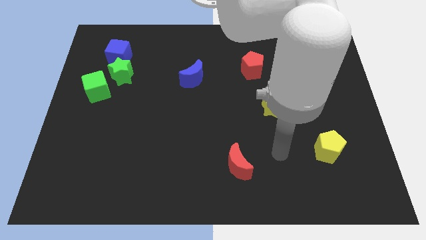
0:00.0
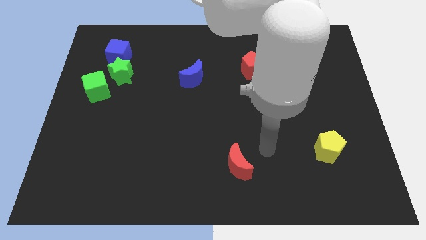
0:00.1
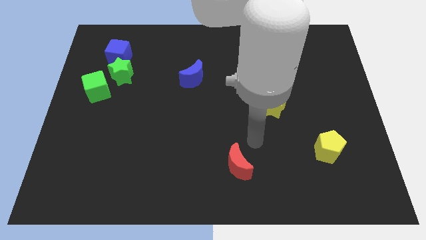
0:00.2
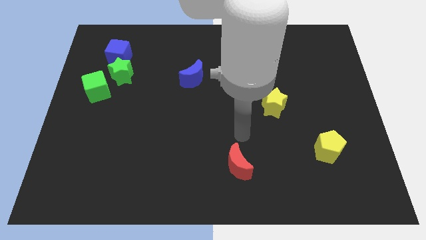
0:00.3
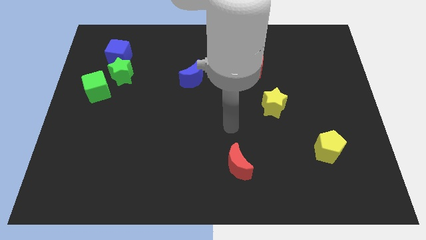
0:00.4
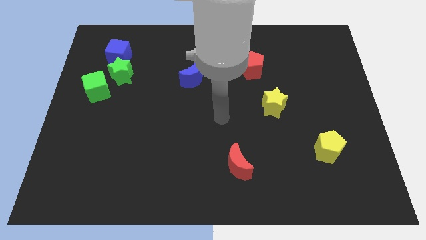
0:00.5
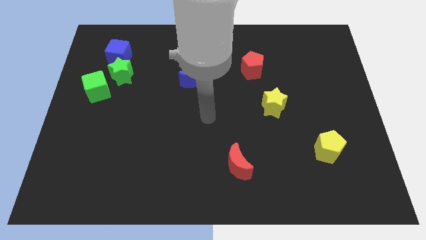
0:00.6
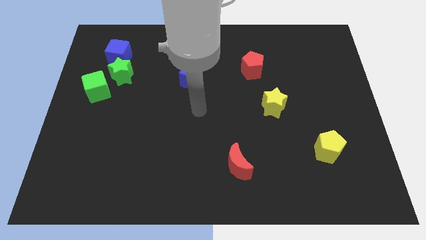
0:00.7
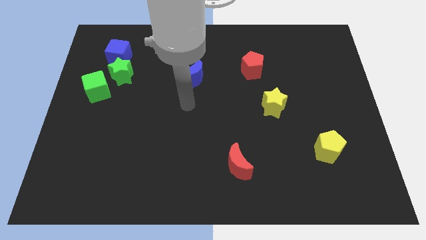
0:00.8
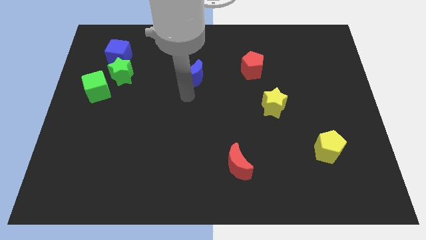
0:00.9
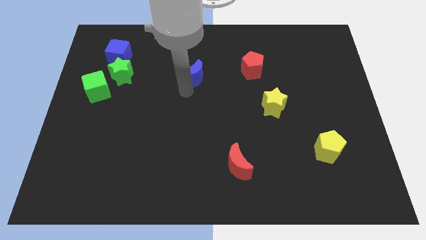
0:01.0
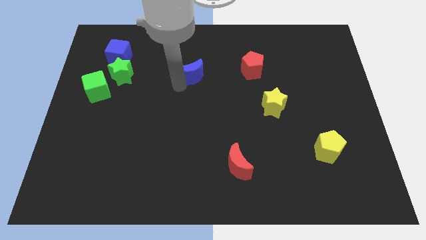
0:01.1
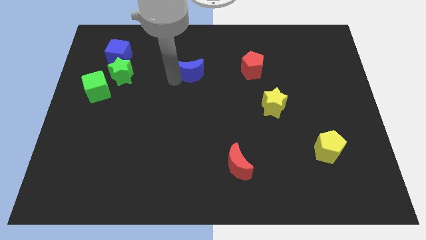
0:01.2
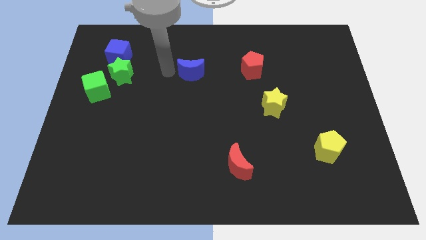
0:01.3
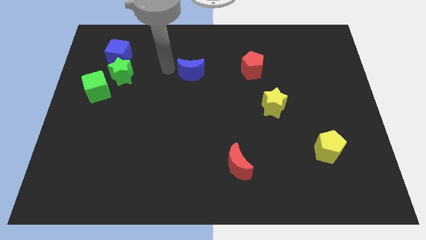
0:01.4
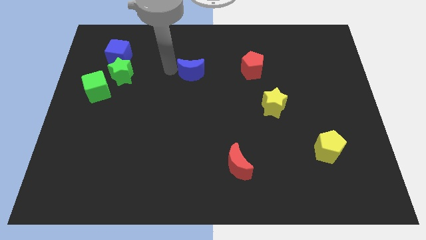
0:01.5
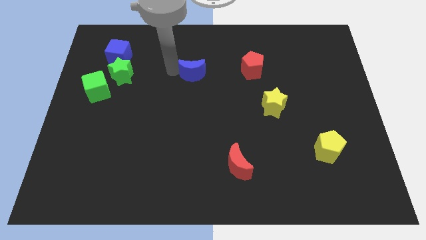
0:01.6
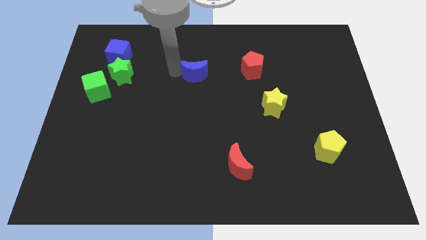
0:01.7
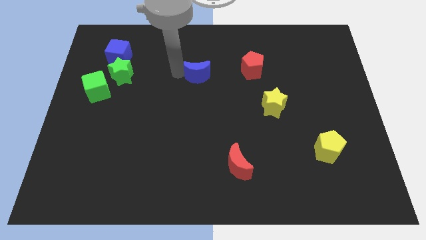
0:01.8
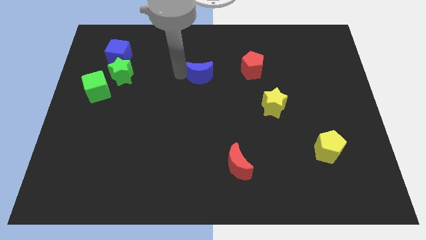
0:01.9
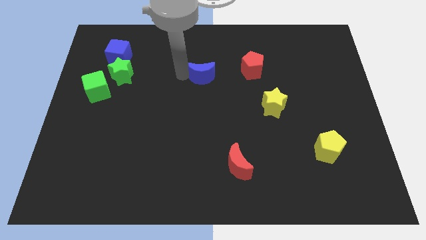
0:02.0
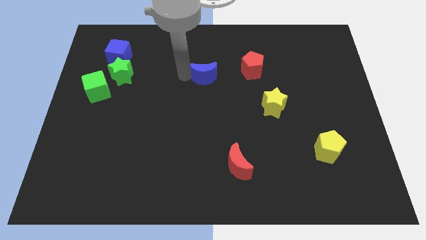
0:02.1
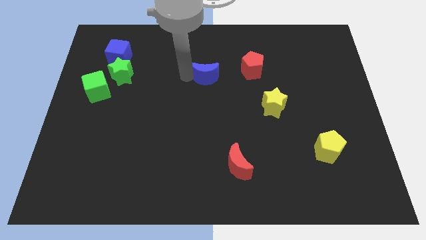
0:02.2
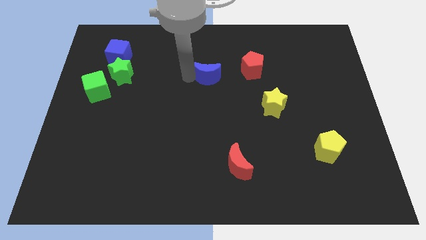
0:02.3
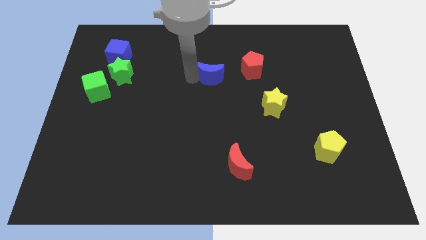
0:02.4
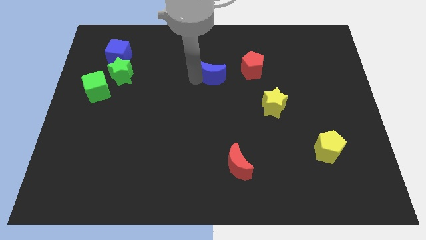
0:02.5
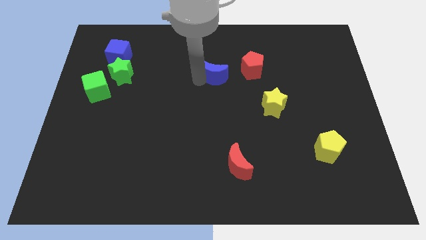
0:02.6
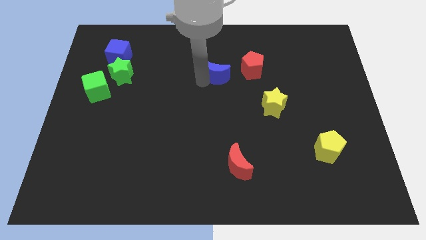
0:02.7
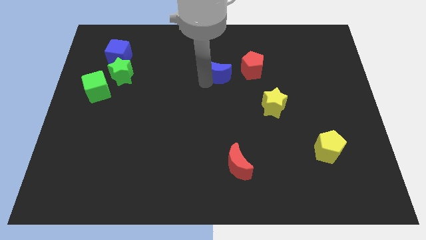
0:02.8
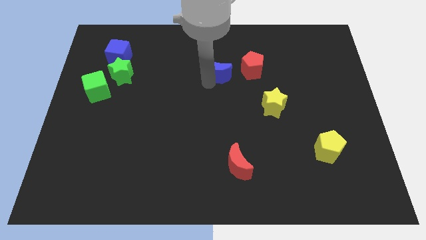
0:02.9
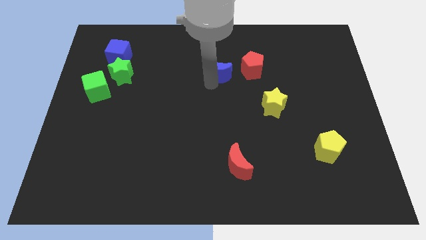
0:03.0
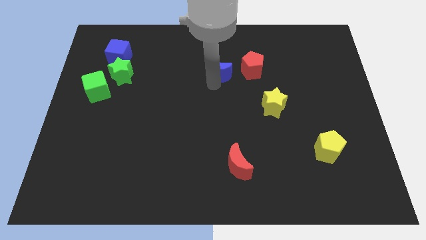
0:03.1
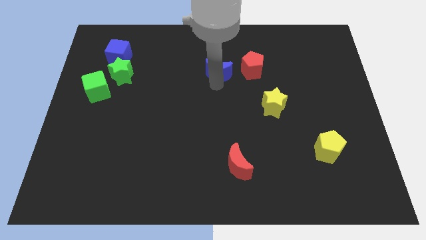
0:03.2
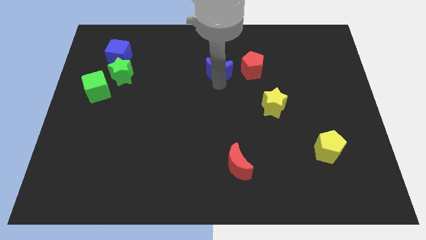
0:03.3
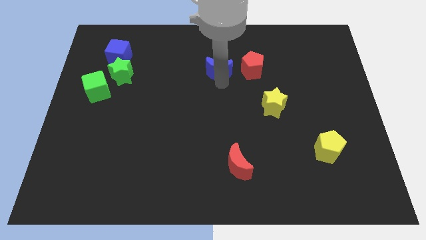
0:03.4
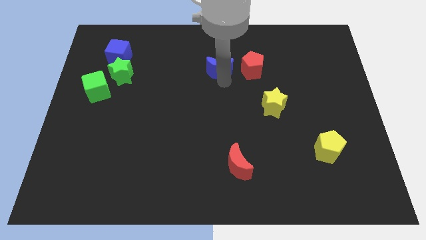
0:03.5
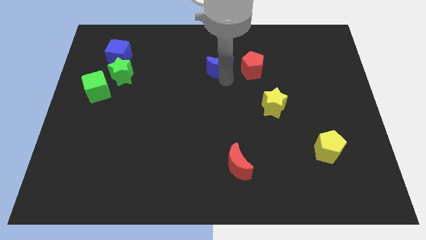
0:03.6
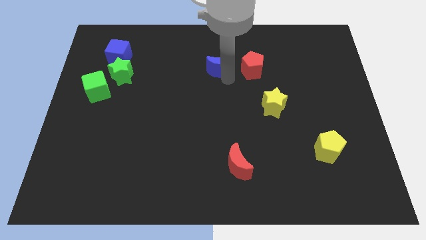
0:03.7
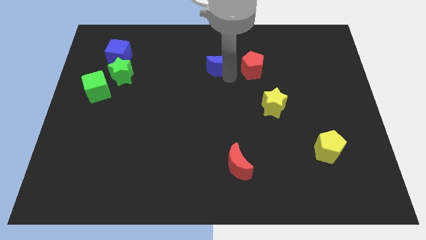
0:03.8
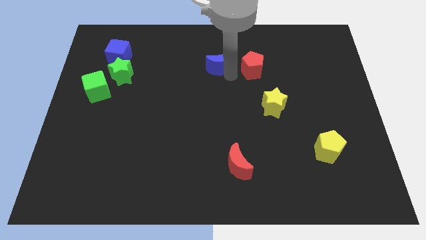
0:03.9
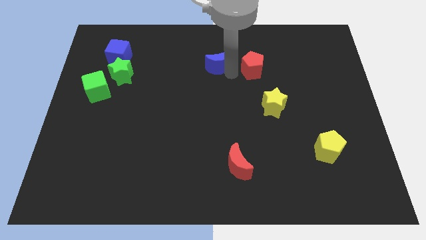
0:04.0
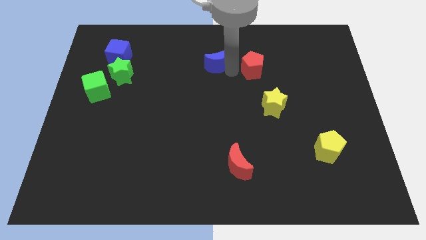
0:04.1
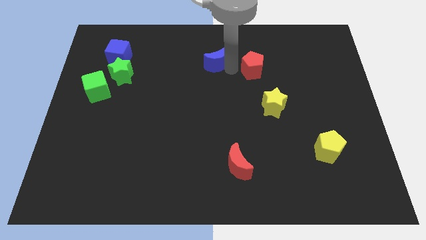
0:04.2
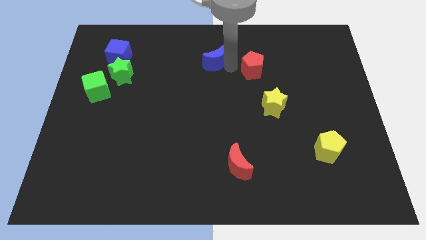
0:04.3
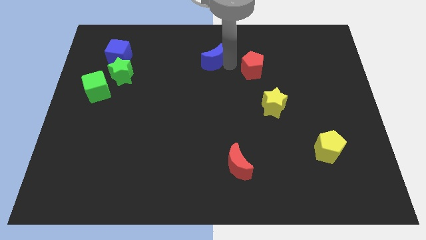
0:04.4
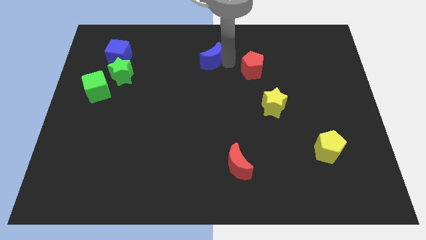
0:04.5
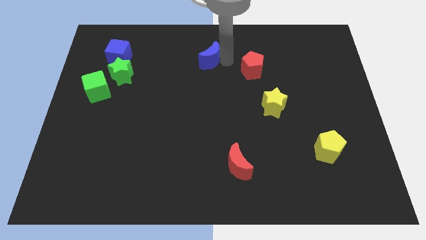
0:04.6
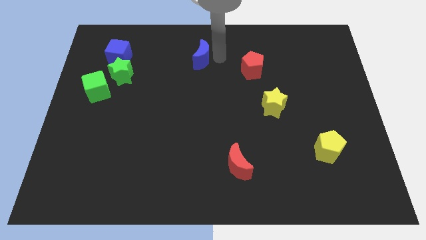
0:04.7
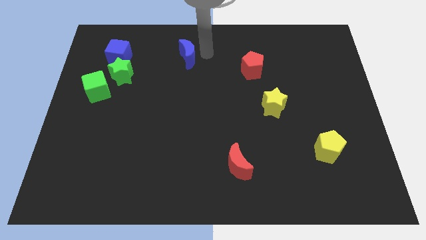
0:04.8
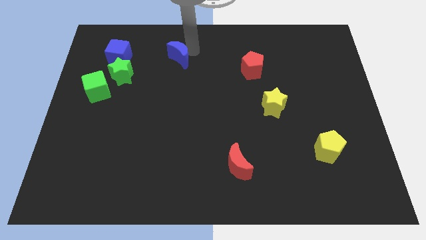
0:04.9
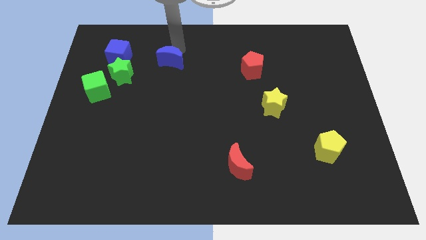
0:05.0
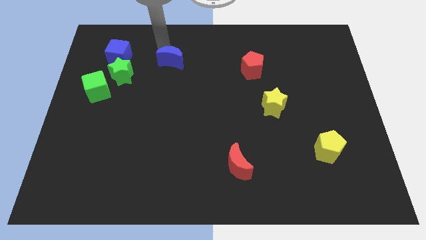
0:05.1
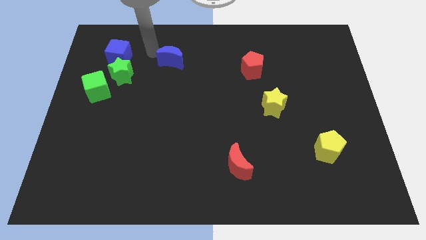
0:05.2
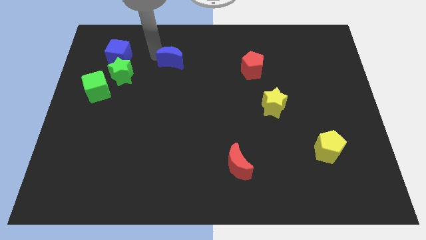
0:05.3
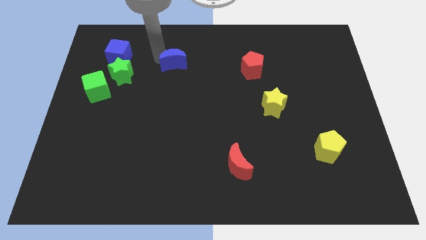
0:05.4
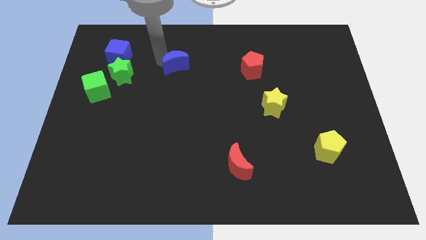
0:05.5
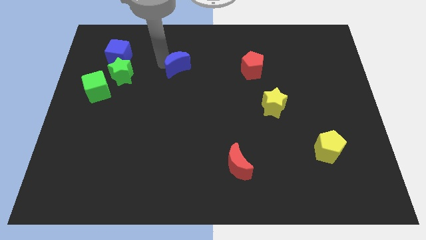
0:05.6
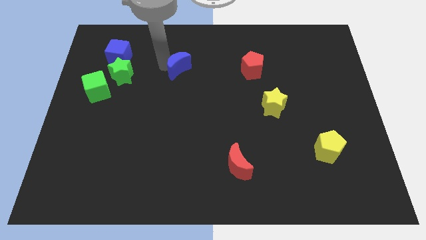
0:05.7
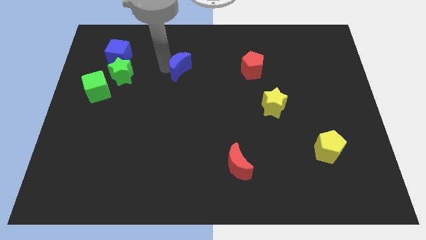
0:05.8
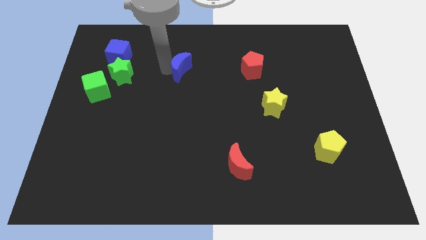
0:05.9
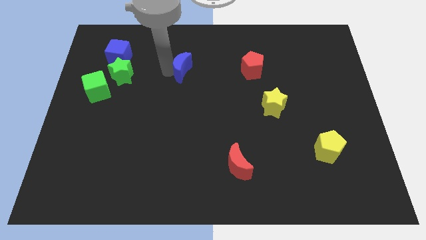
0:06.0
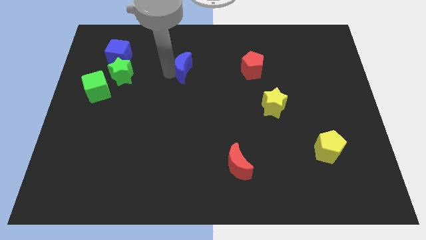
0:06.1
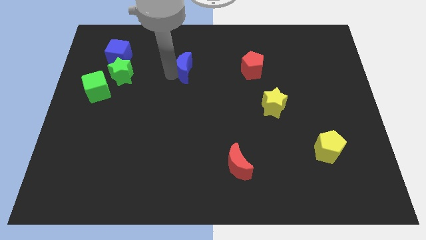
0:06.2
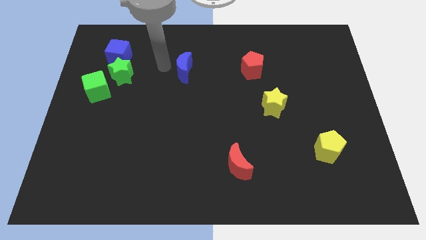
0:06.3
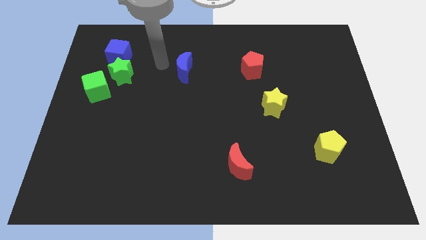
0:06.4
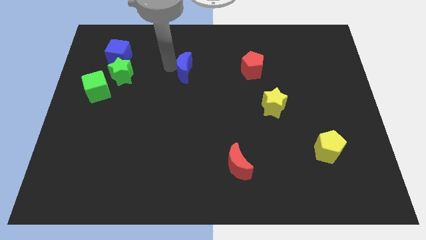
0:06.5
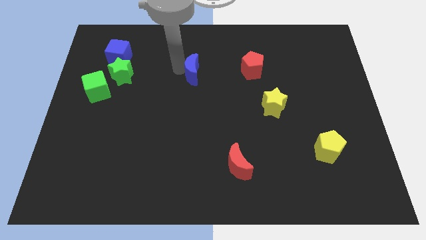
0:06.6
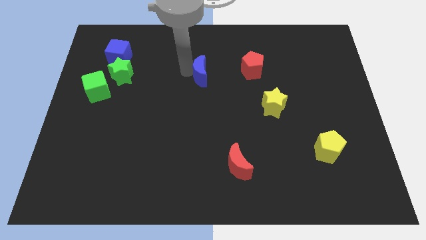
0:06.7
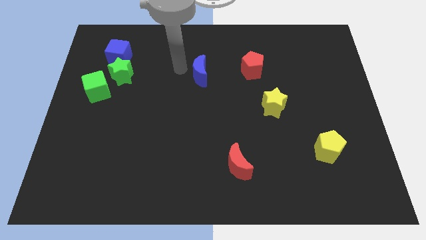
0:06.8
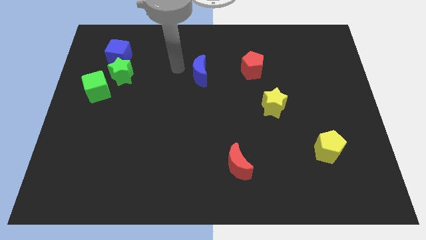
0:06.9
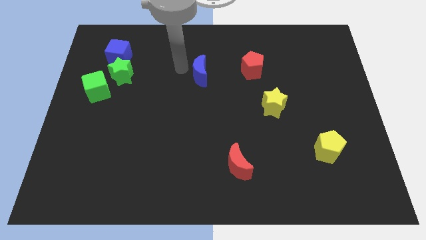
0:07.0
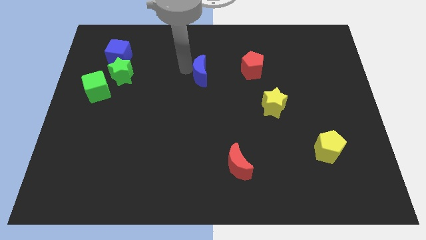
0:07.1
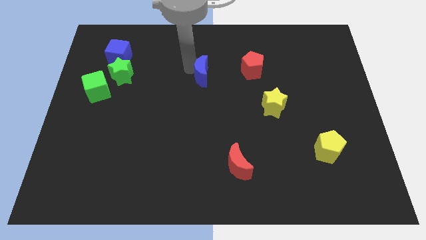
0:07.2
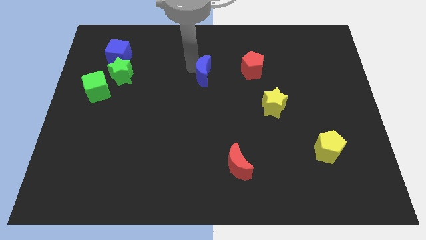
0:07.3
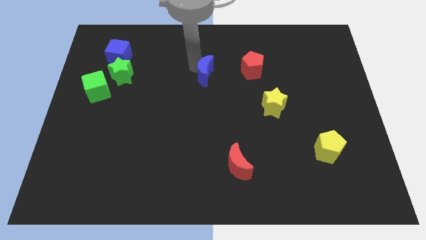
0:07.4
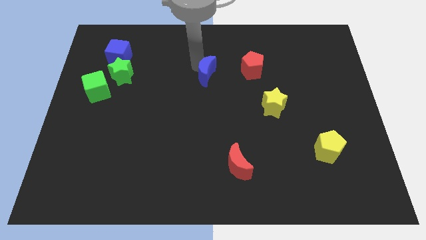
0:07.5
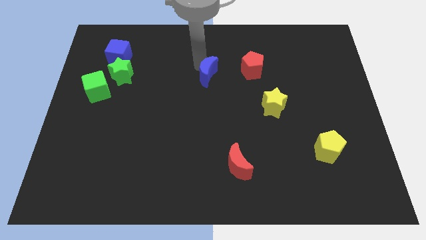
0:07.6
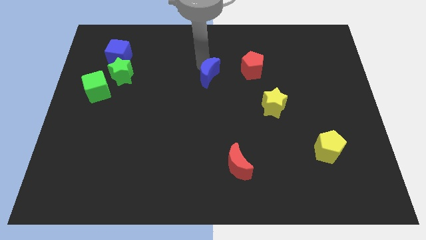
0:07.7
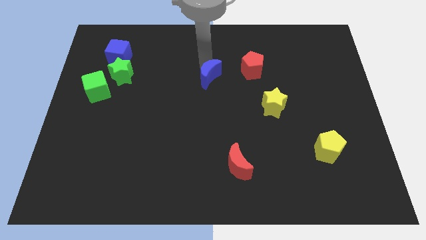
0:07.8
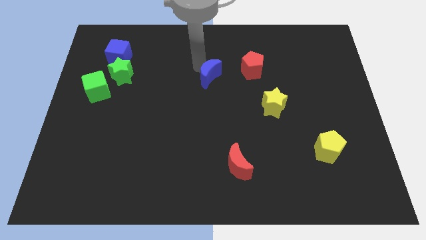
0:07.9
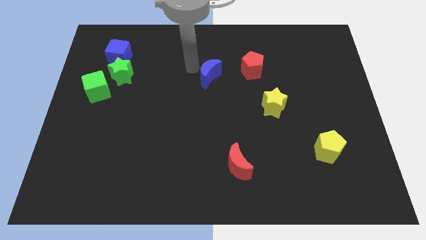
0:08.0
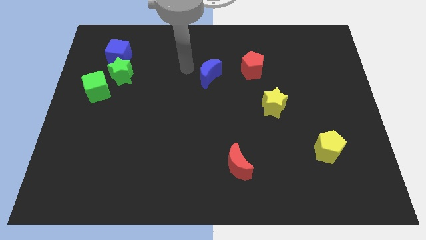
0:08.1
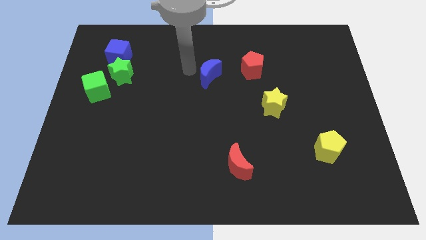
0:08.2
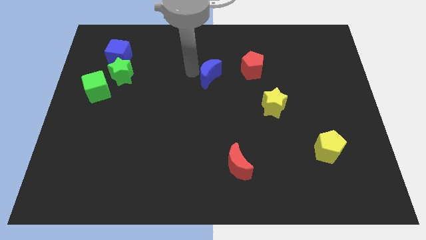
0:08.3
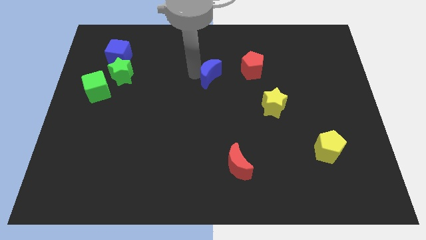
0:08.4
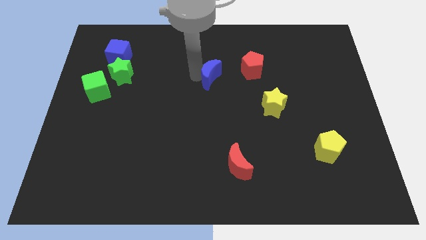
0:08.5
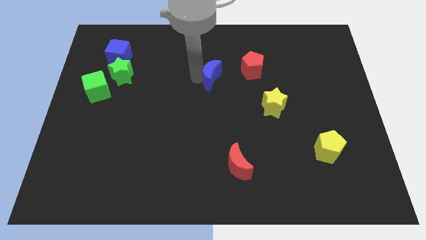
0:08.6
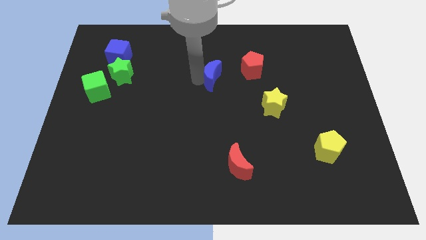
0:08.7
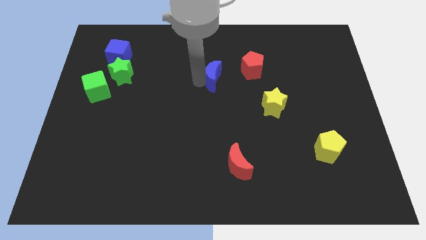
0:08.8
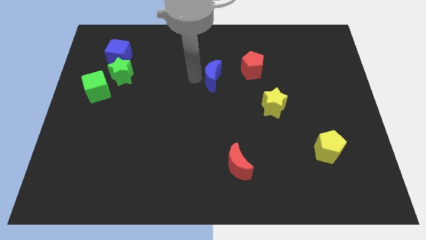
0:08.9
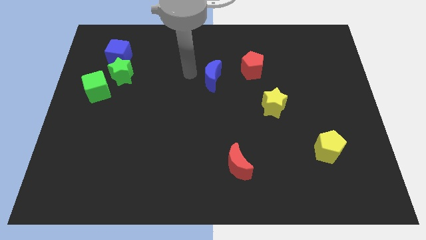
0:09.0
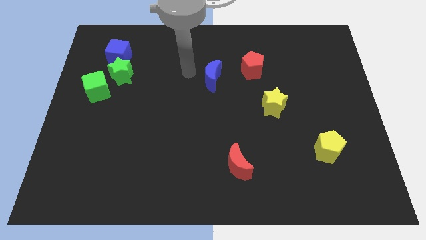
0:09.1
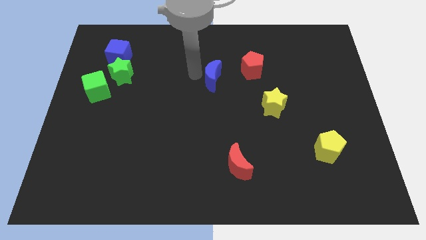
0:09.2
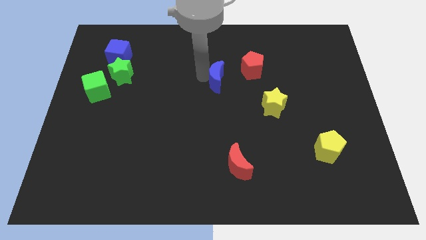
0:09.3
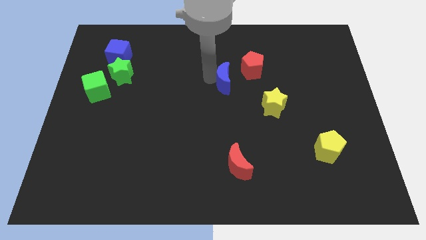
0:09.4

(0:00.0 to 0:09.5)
slide the blue moon right a little bit
